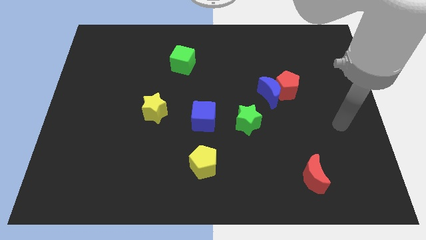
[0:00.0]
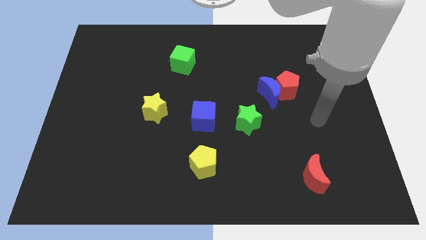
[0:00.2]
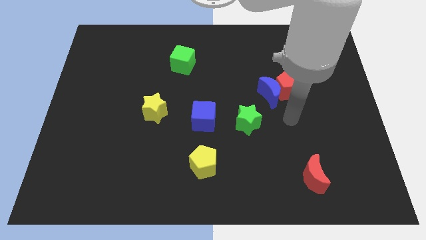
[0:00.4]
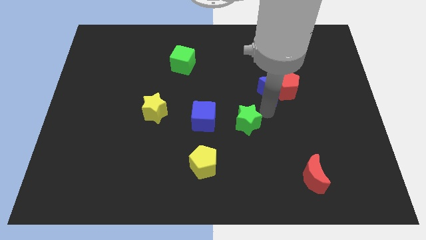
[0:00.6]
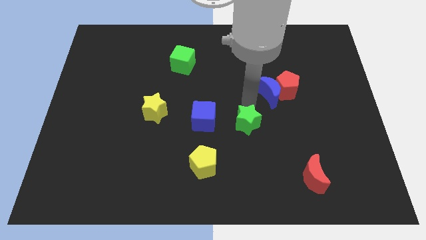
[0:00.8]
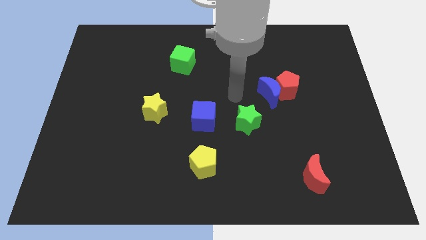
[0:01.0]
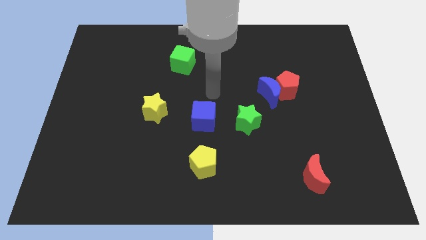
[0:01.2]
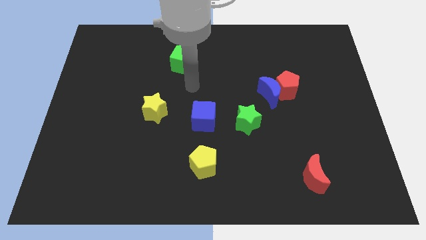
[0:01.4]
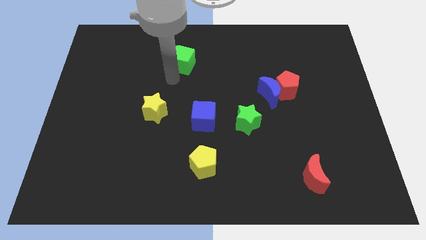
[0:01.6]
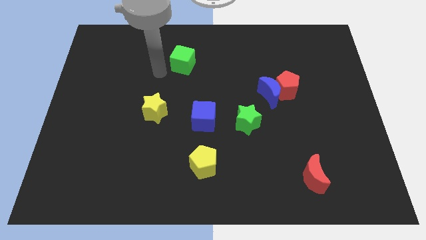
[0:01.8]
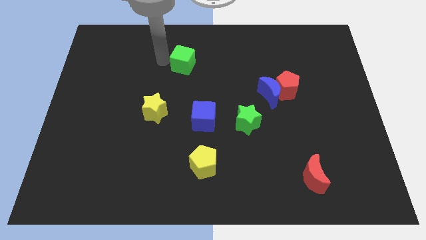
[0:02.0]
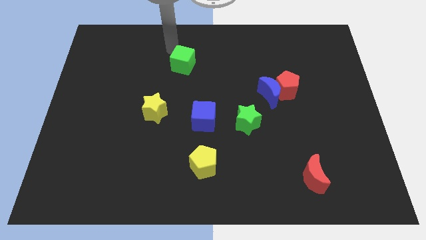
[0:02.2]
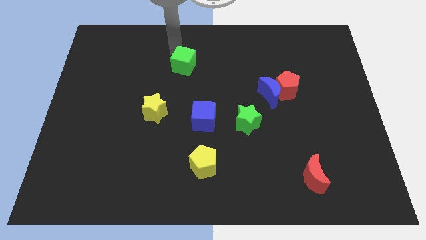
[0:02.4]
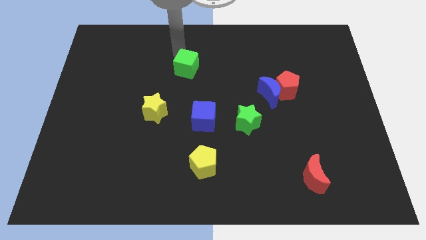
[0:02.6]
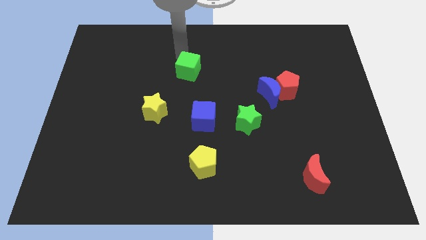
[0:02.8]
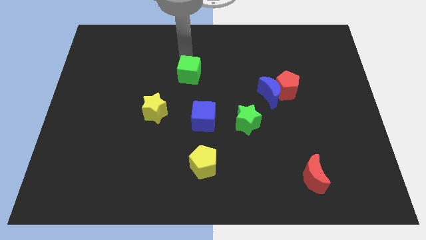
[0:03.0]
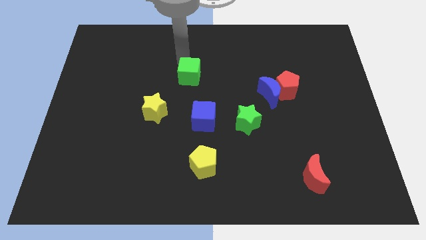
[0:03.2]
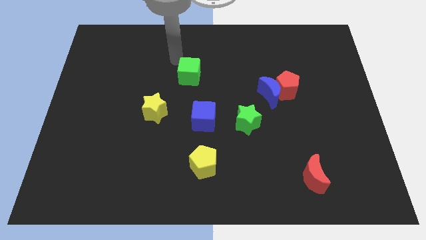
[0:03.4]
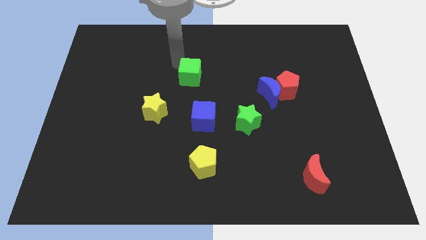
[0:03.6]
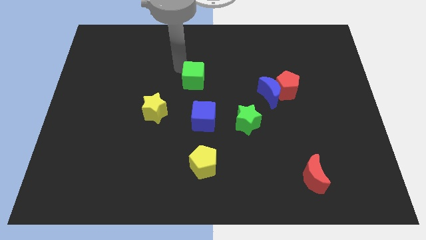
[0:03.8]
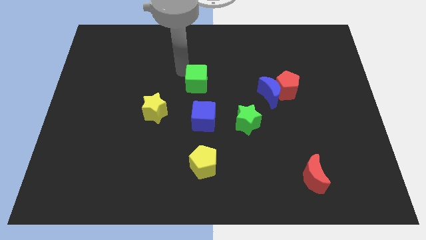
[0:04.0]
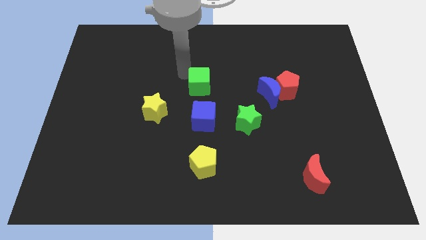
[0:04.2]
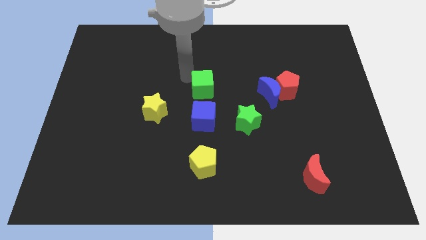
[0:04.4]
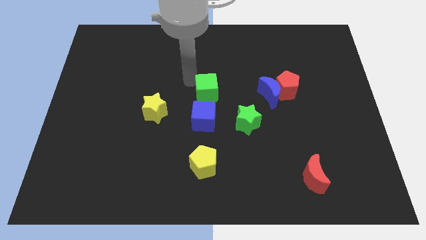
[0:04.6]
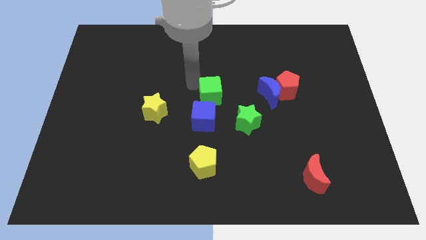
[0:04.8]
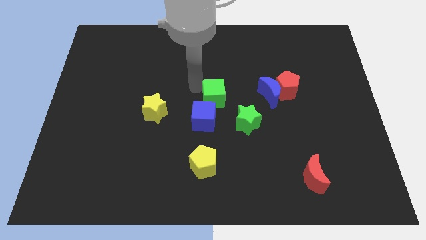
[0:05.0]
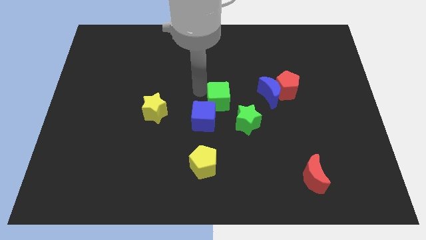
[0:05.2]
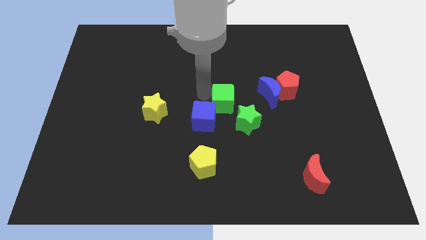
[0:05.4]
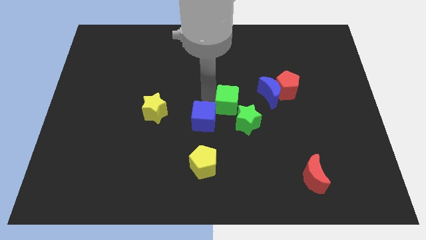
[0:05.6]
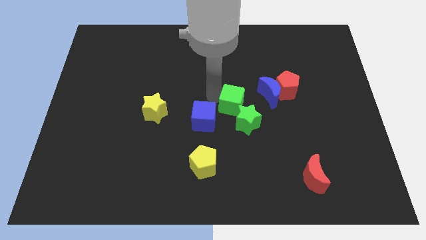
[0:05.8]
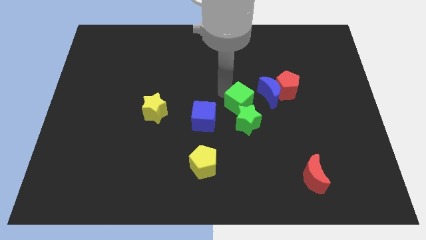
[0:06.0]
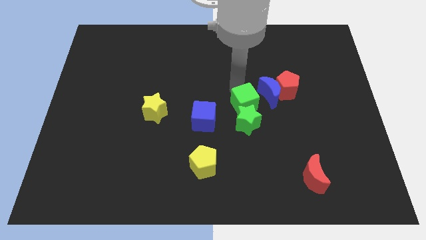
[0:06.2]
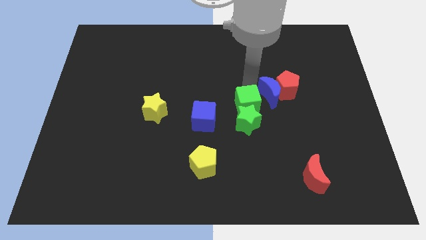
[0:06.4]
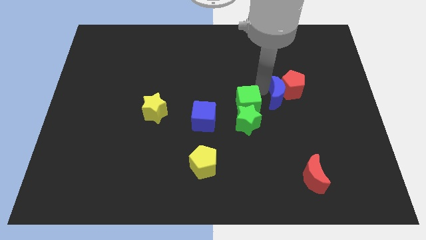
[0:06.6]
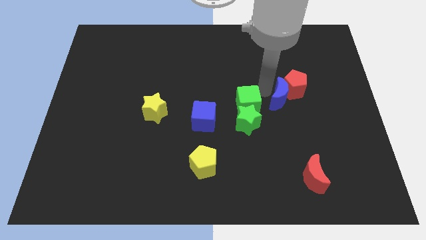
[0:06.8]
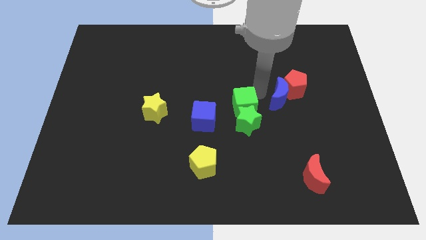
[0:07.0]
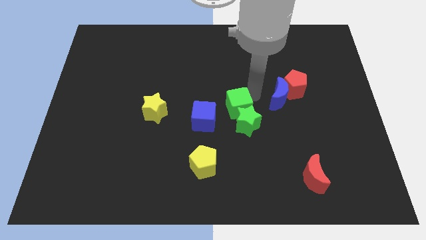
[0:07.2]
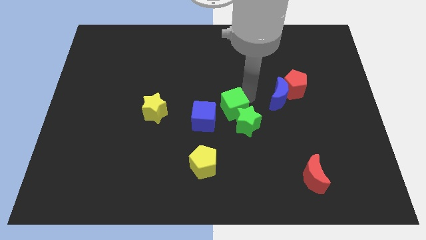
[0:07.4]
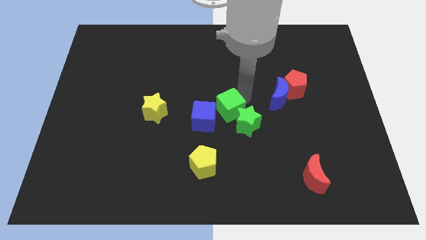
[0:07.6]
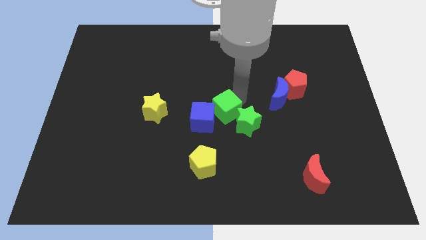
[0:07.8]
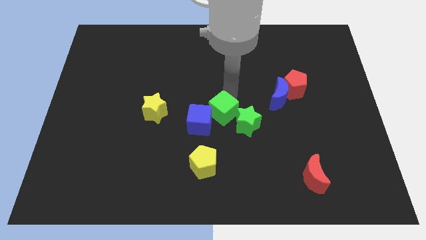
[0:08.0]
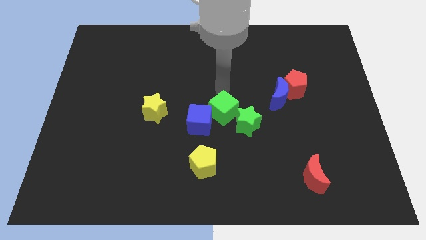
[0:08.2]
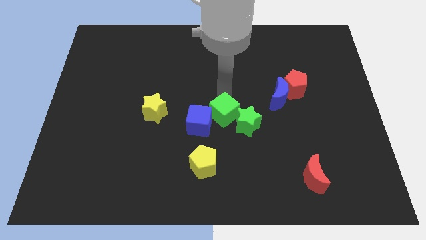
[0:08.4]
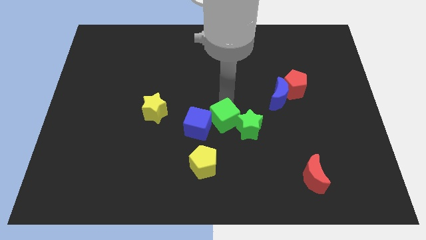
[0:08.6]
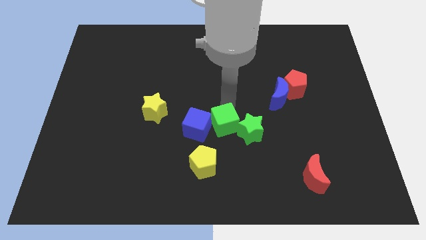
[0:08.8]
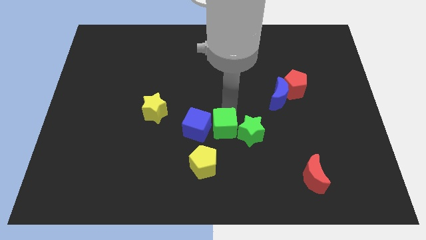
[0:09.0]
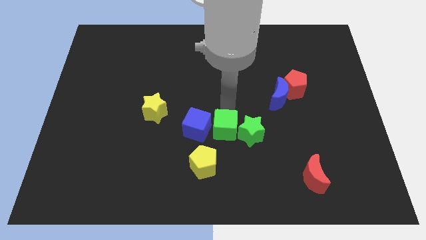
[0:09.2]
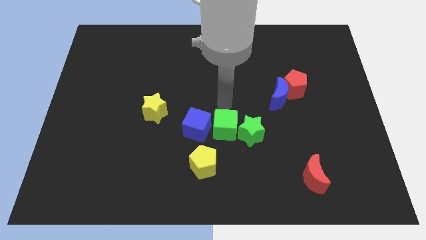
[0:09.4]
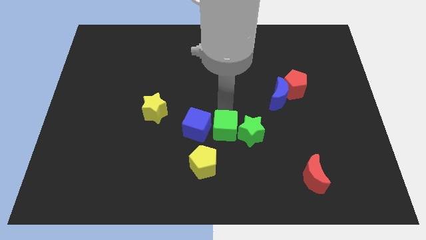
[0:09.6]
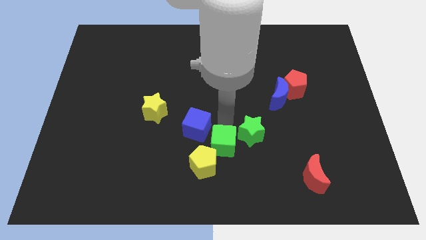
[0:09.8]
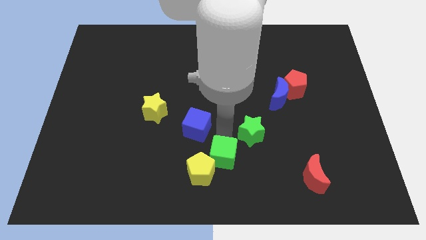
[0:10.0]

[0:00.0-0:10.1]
put the green cube to the bottom side

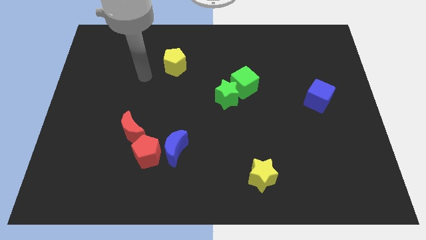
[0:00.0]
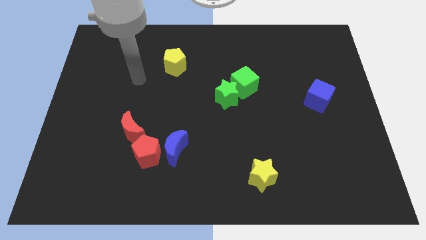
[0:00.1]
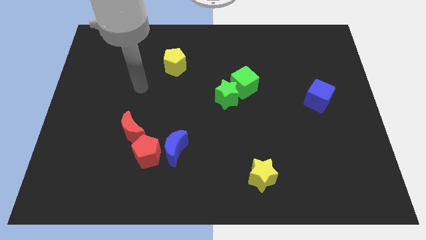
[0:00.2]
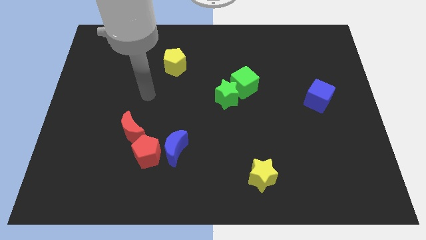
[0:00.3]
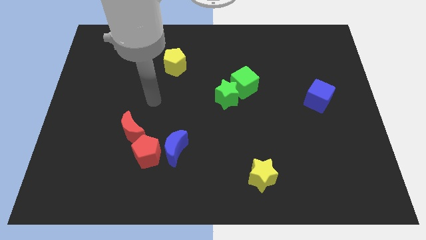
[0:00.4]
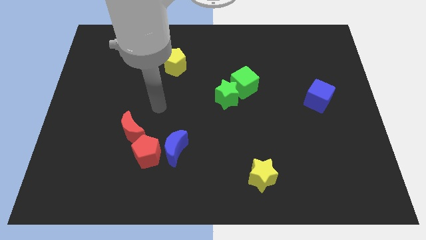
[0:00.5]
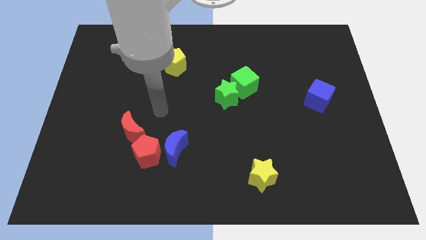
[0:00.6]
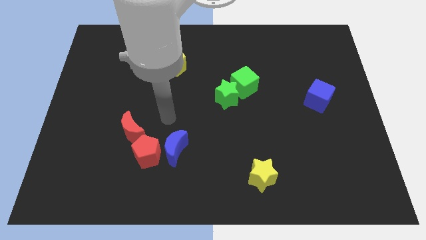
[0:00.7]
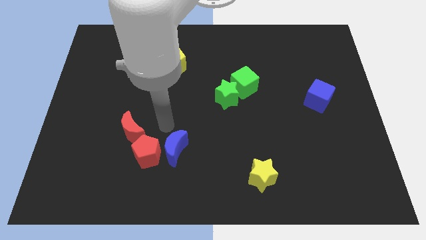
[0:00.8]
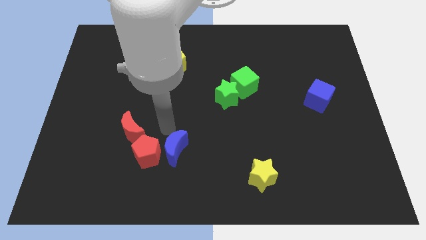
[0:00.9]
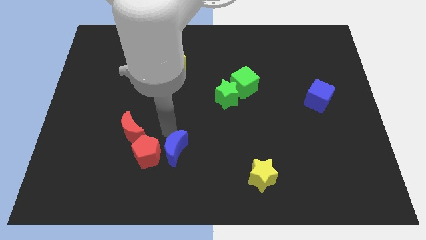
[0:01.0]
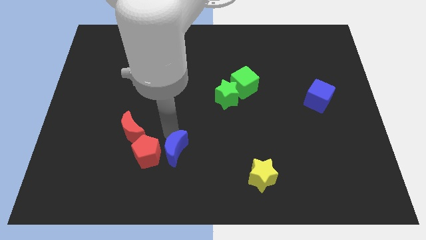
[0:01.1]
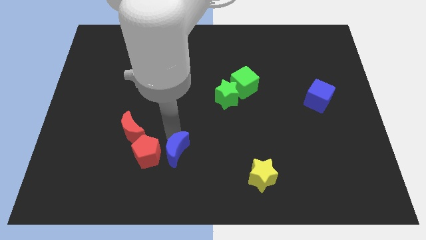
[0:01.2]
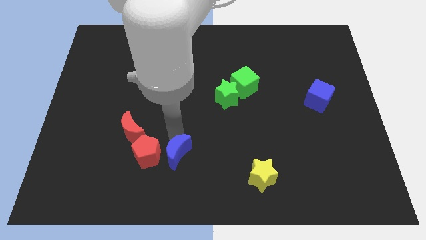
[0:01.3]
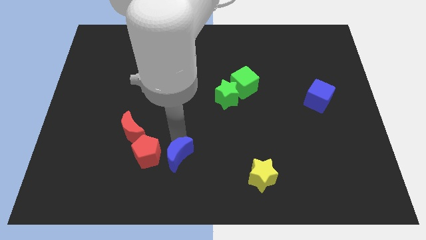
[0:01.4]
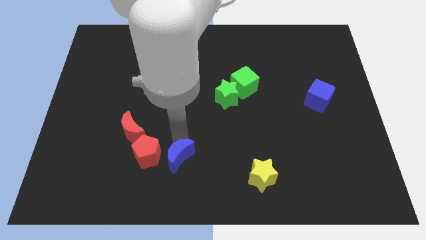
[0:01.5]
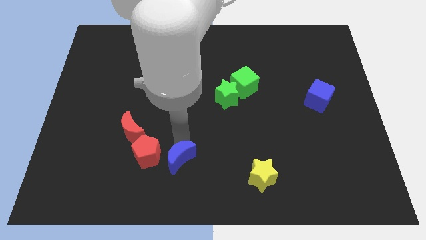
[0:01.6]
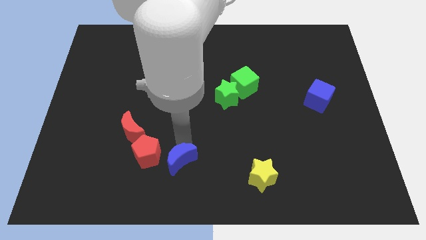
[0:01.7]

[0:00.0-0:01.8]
slide the blue moon to the bottom
